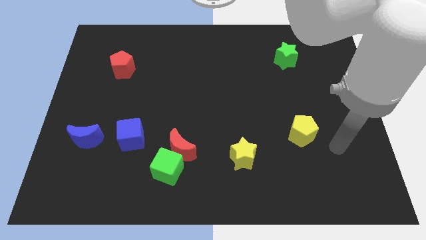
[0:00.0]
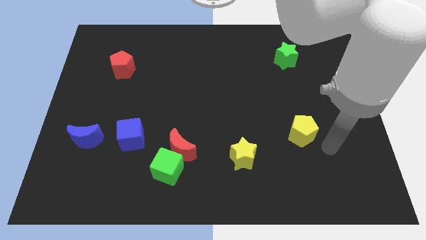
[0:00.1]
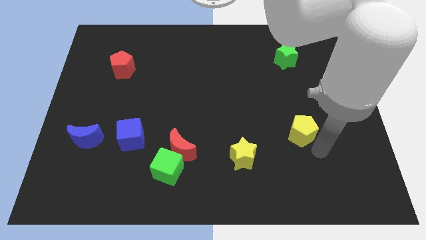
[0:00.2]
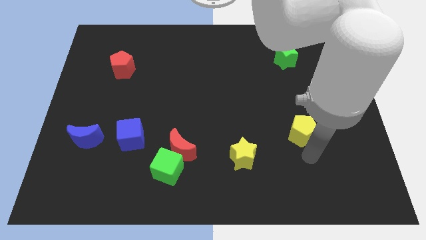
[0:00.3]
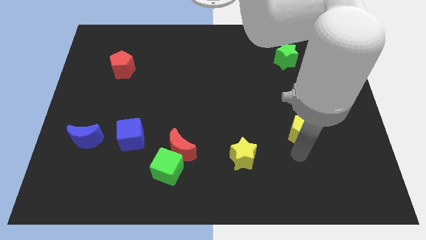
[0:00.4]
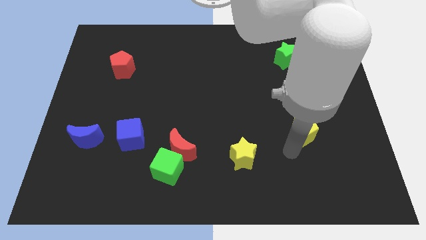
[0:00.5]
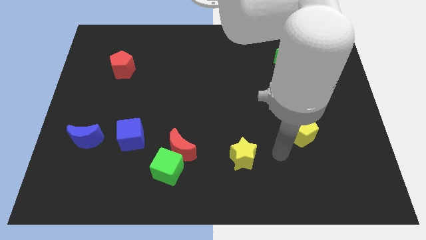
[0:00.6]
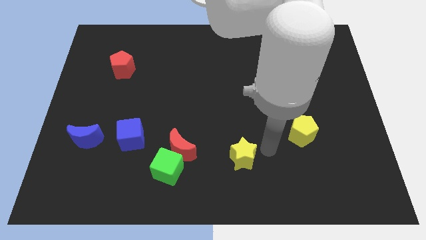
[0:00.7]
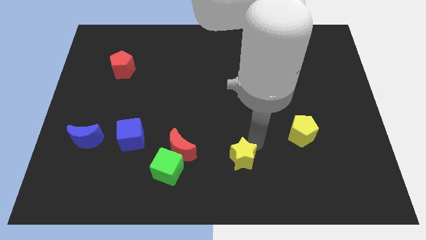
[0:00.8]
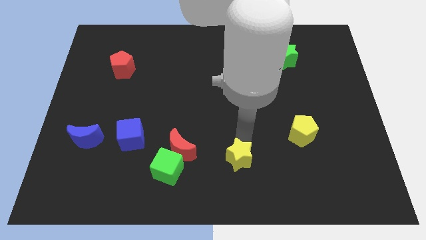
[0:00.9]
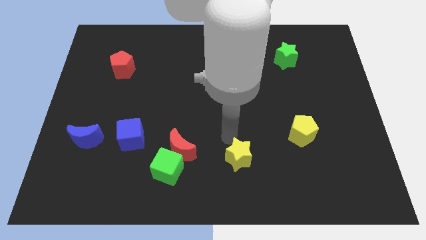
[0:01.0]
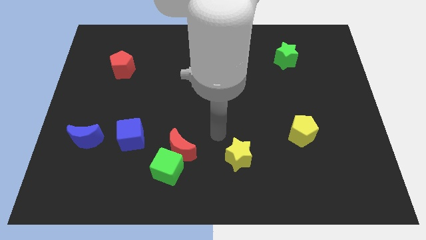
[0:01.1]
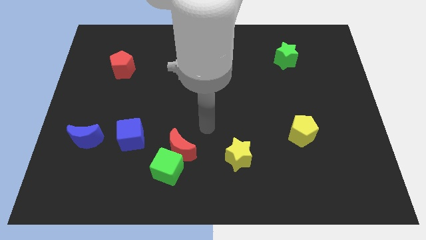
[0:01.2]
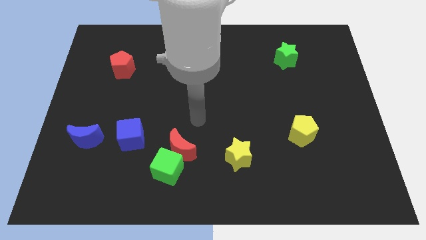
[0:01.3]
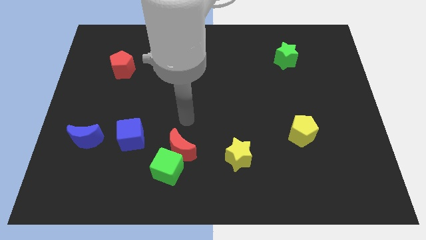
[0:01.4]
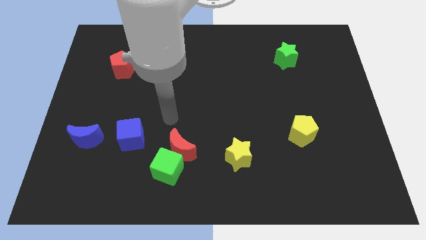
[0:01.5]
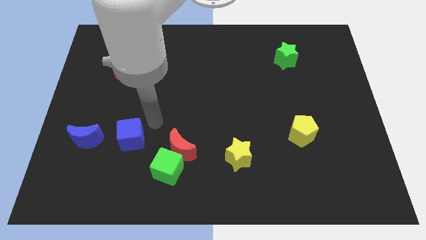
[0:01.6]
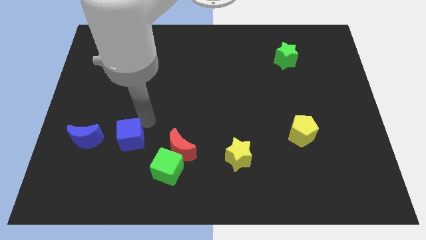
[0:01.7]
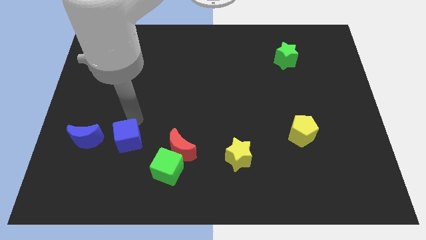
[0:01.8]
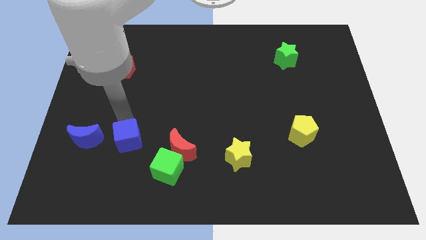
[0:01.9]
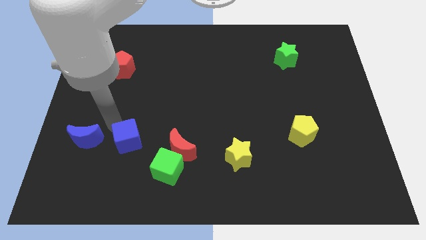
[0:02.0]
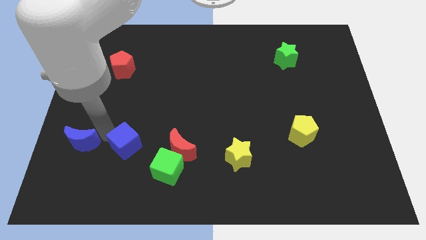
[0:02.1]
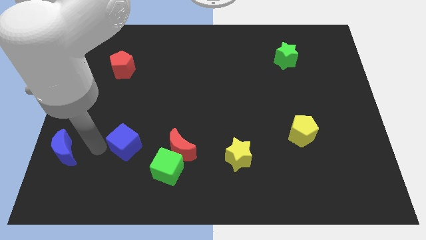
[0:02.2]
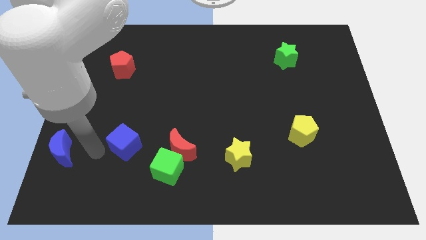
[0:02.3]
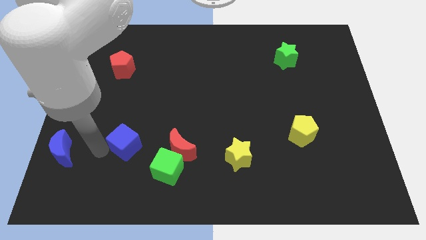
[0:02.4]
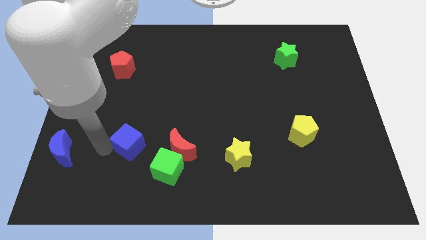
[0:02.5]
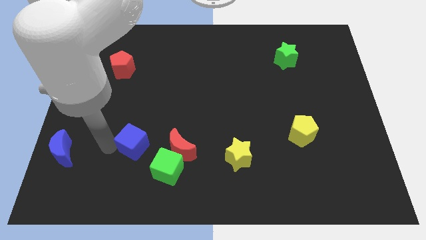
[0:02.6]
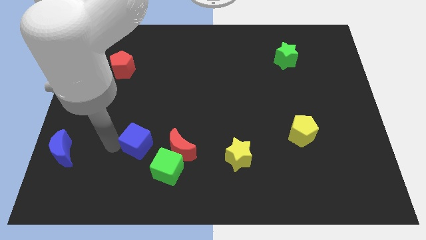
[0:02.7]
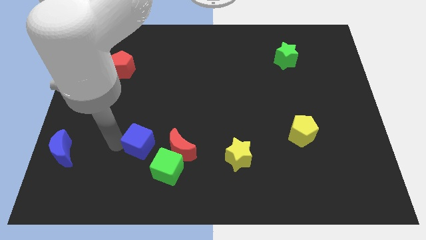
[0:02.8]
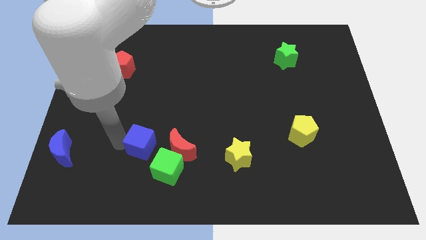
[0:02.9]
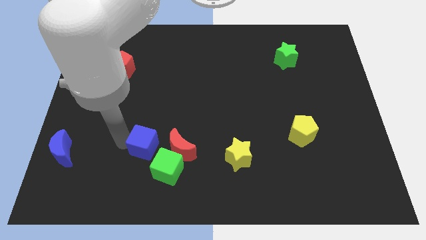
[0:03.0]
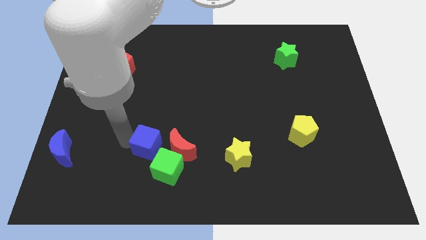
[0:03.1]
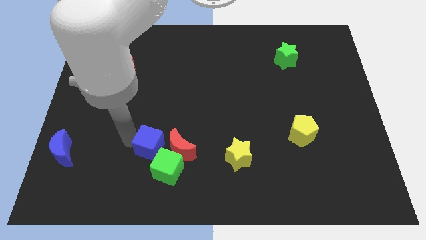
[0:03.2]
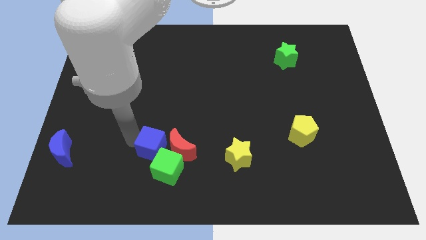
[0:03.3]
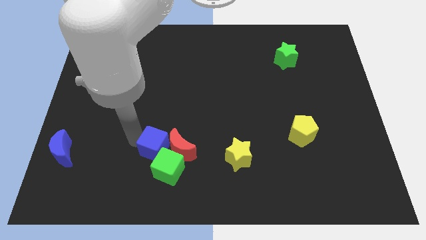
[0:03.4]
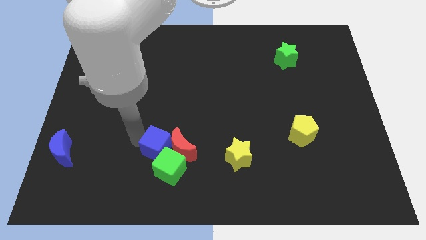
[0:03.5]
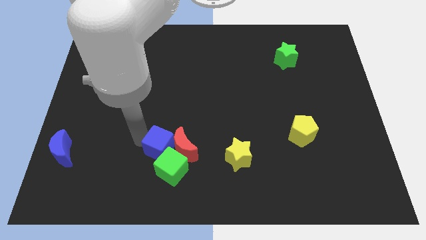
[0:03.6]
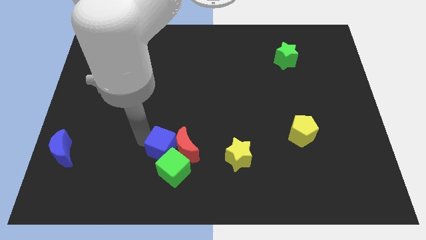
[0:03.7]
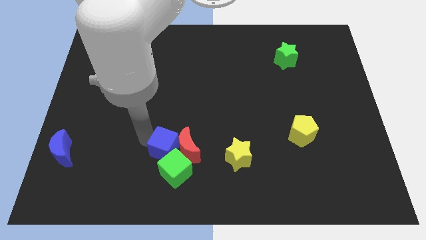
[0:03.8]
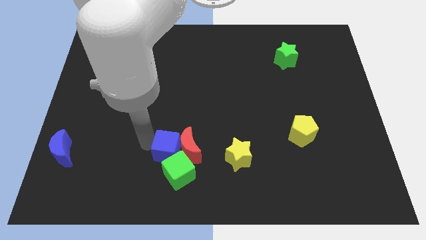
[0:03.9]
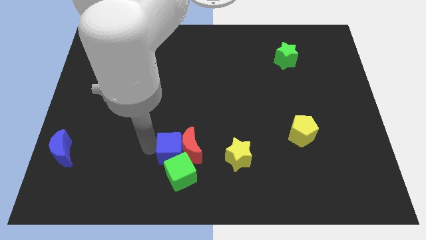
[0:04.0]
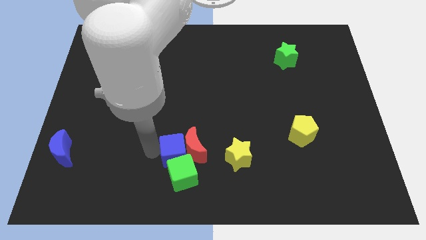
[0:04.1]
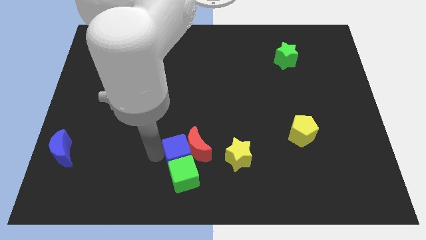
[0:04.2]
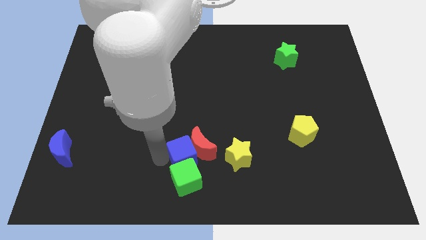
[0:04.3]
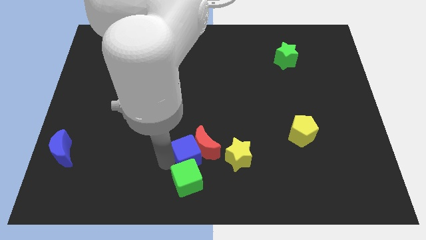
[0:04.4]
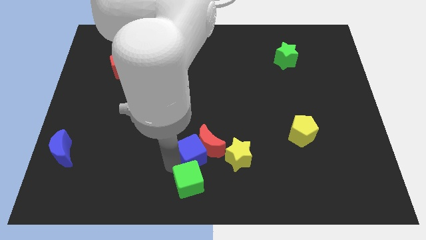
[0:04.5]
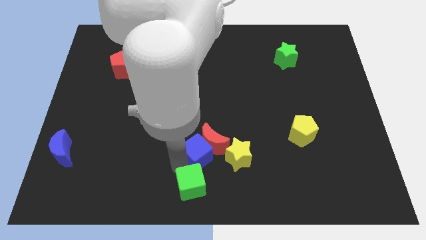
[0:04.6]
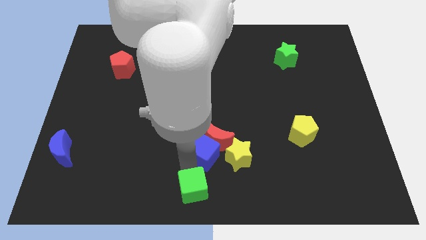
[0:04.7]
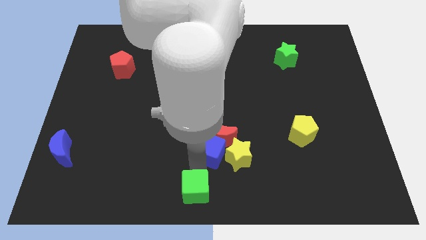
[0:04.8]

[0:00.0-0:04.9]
move the blue cube to the yellow star

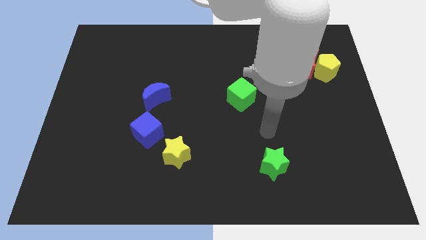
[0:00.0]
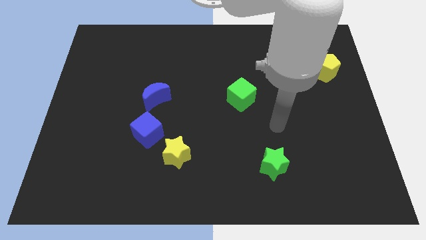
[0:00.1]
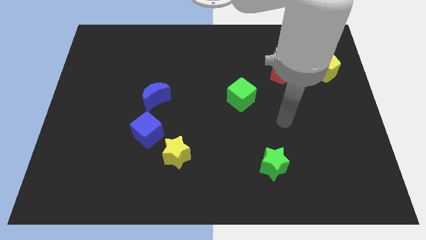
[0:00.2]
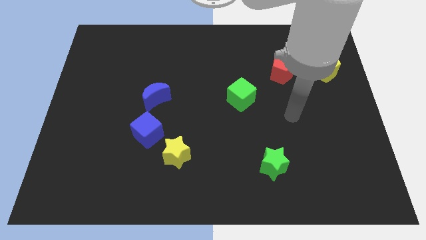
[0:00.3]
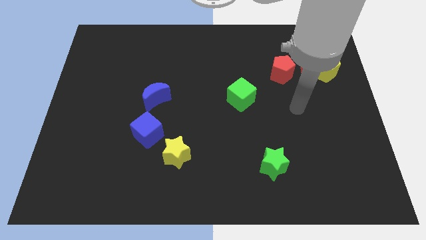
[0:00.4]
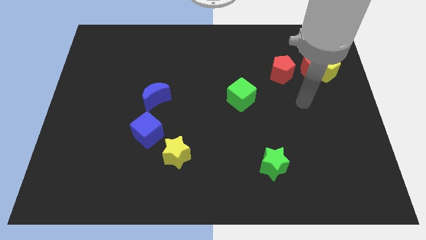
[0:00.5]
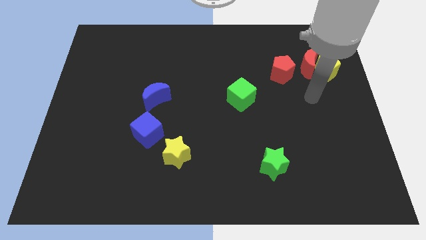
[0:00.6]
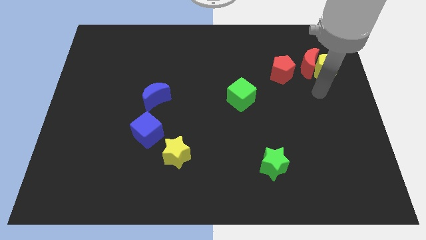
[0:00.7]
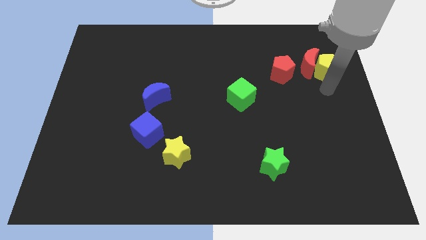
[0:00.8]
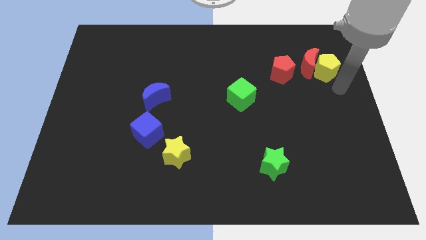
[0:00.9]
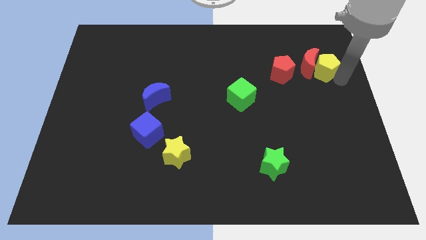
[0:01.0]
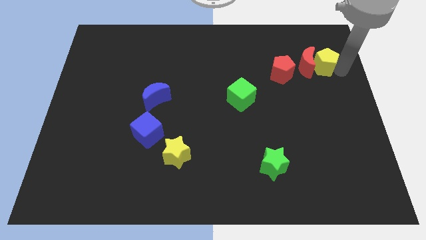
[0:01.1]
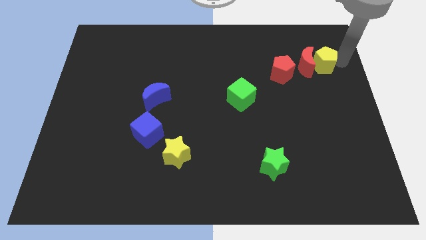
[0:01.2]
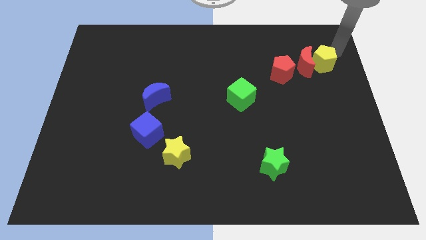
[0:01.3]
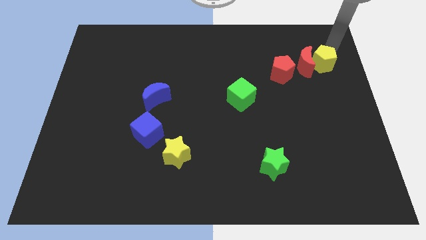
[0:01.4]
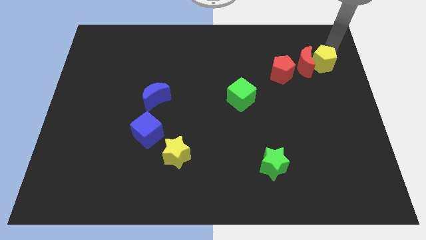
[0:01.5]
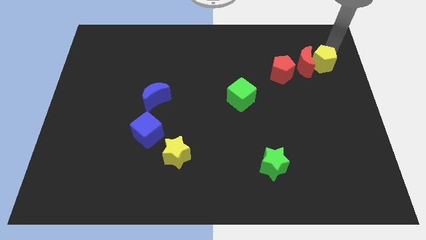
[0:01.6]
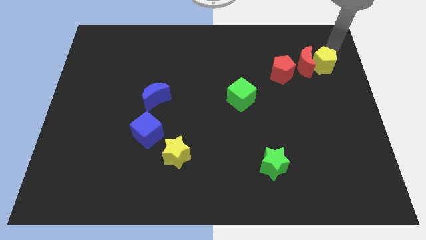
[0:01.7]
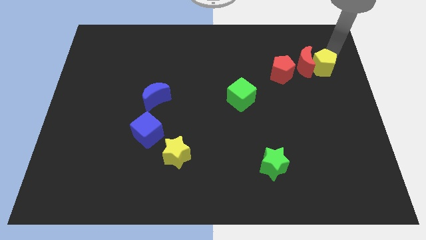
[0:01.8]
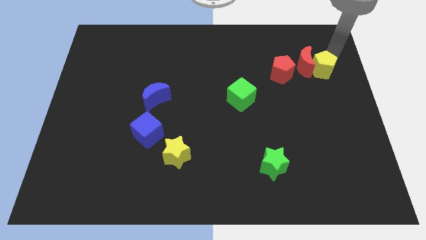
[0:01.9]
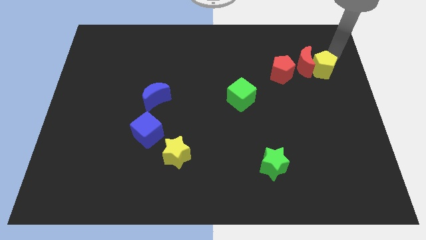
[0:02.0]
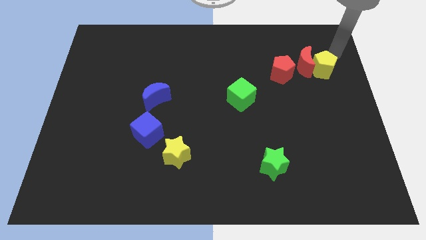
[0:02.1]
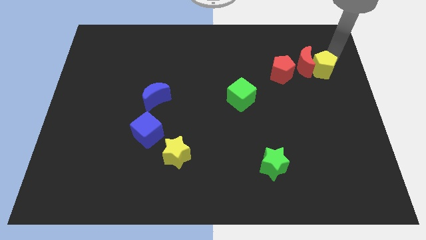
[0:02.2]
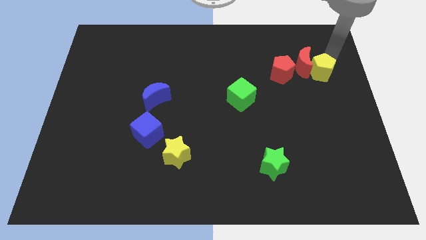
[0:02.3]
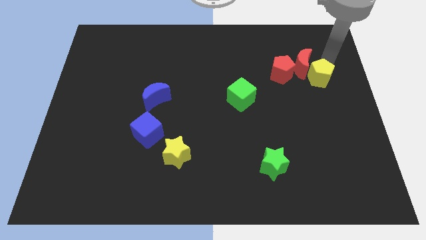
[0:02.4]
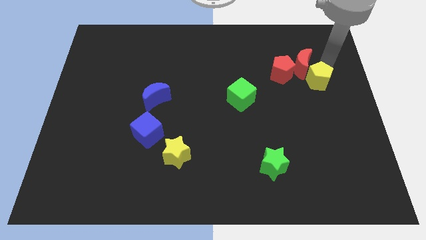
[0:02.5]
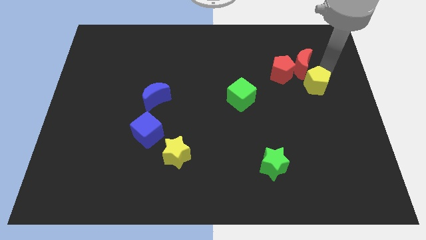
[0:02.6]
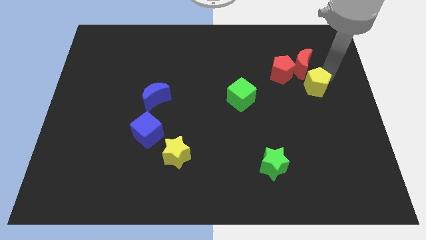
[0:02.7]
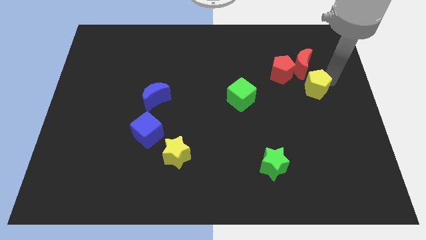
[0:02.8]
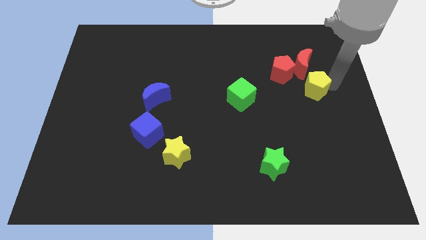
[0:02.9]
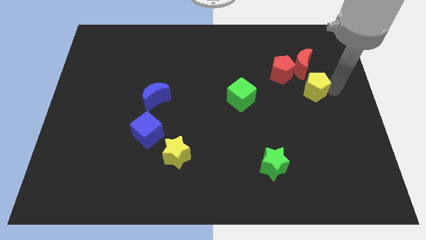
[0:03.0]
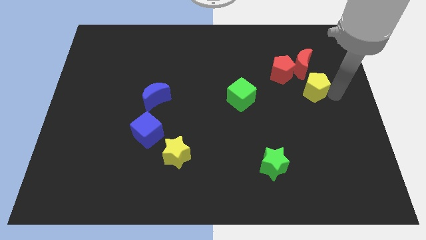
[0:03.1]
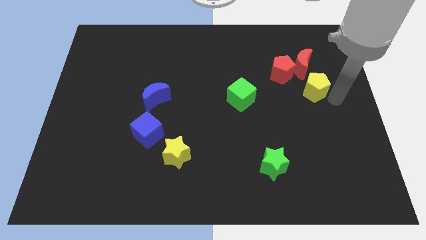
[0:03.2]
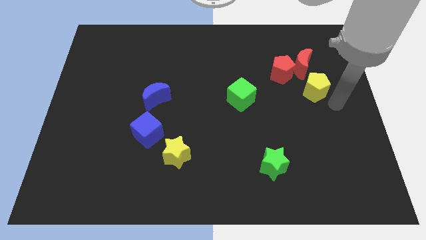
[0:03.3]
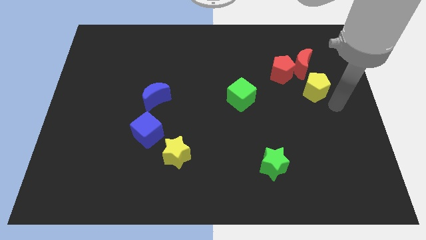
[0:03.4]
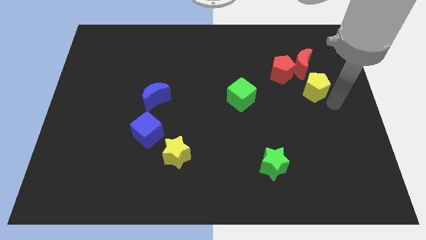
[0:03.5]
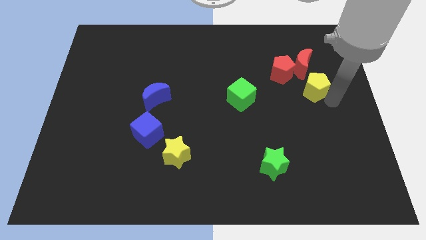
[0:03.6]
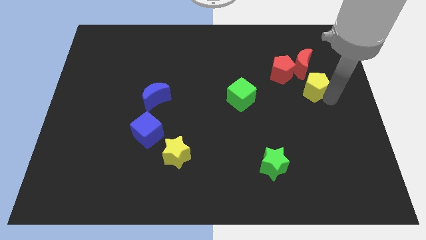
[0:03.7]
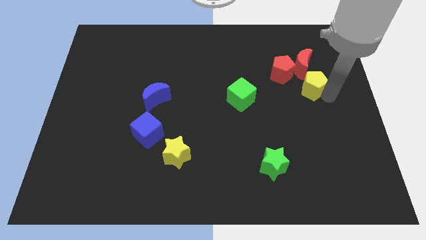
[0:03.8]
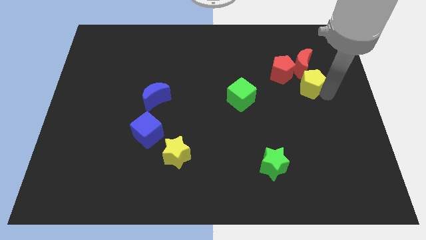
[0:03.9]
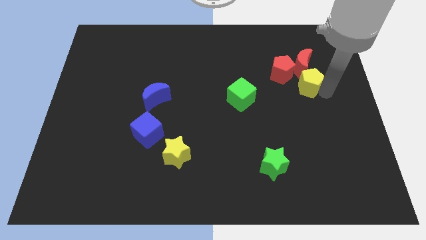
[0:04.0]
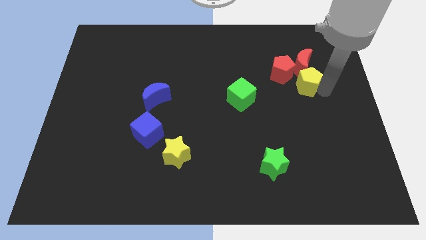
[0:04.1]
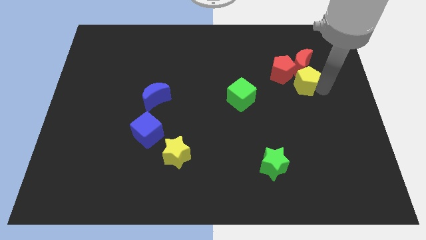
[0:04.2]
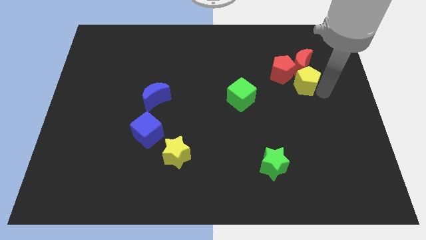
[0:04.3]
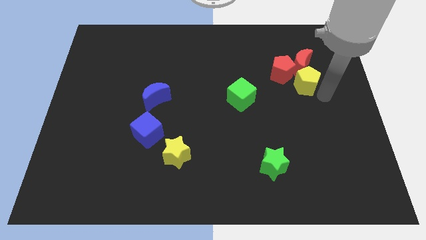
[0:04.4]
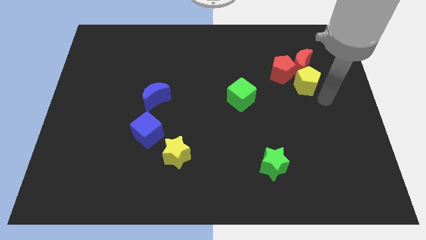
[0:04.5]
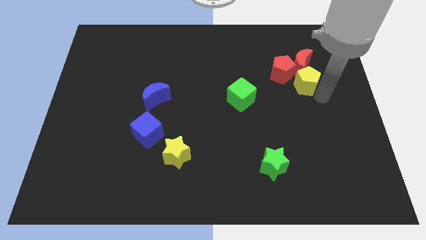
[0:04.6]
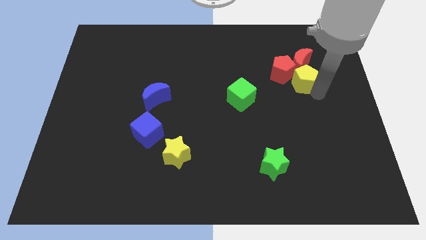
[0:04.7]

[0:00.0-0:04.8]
put the yellow pentagon to the red pentagon
